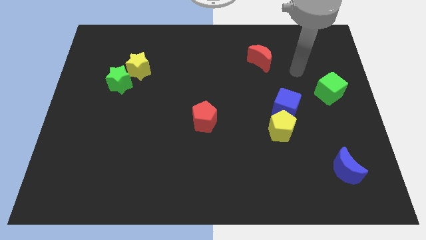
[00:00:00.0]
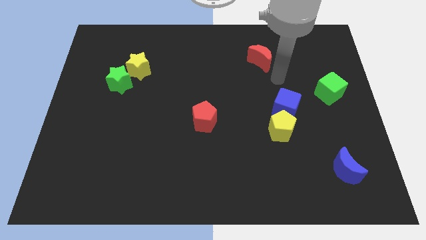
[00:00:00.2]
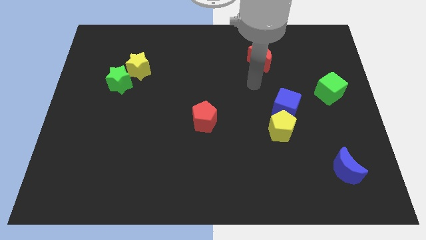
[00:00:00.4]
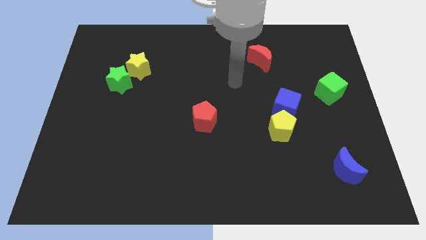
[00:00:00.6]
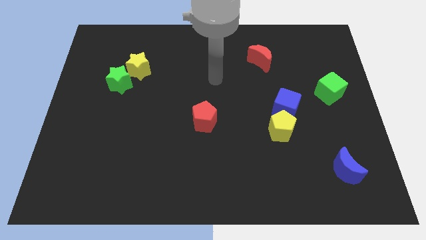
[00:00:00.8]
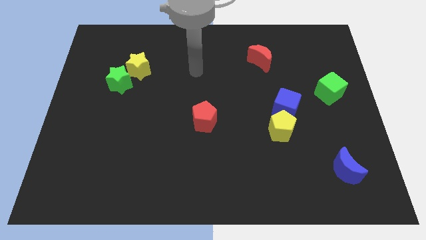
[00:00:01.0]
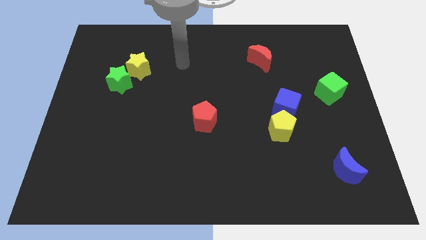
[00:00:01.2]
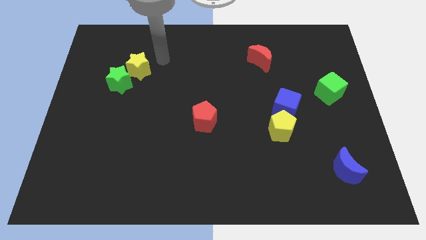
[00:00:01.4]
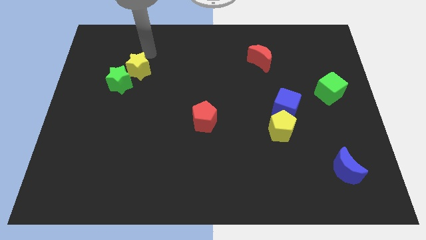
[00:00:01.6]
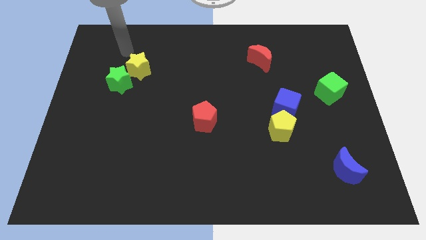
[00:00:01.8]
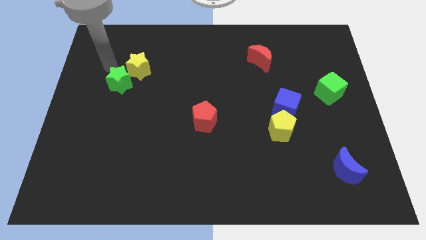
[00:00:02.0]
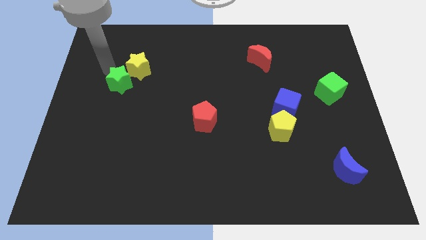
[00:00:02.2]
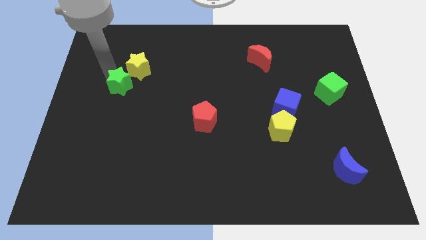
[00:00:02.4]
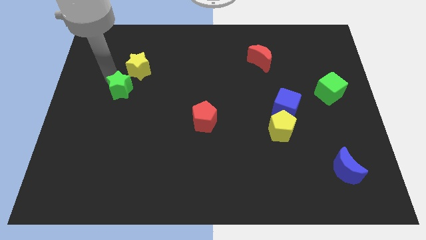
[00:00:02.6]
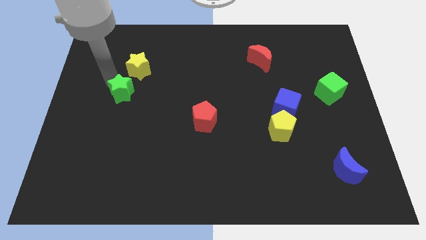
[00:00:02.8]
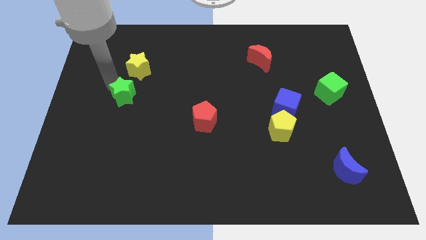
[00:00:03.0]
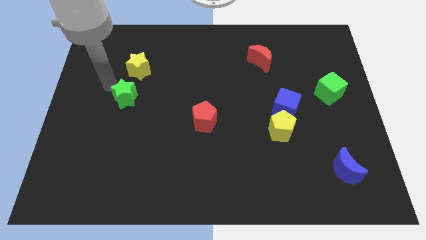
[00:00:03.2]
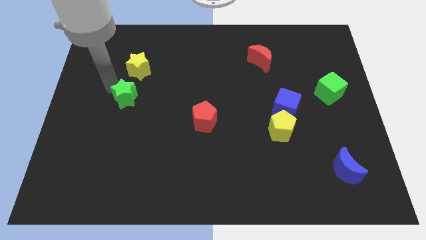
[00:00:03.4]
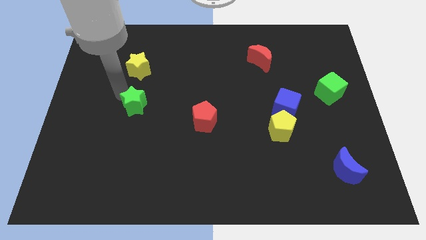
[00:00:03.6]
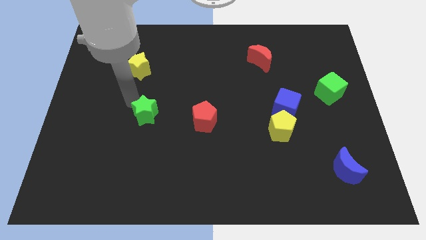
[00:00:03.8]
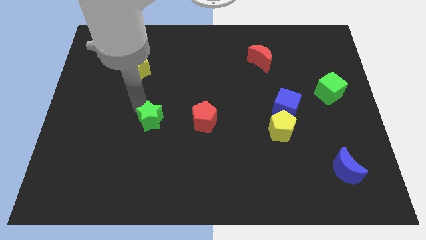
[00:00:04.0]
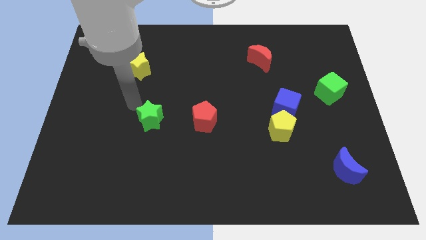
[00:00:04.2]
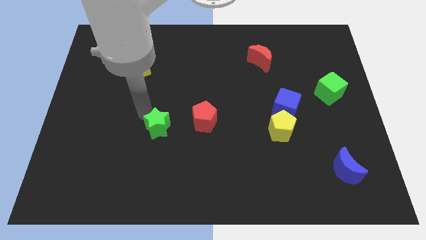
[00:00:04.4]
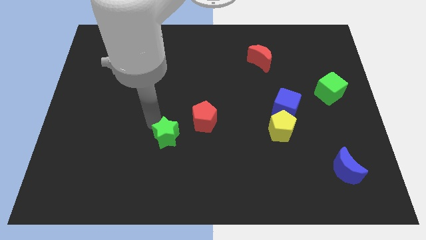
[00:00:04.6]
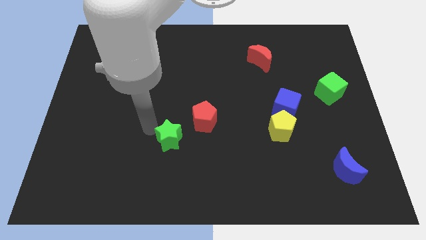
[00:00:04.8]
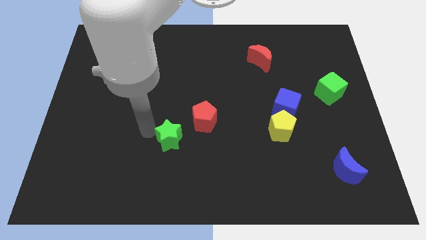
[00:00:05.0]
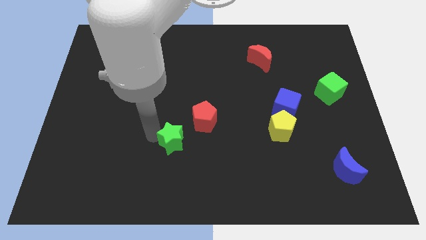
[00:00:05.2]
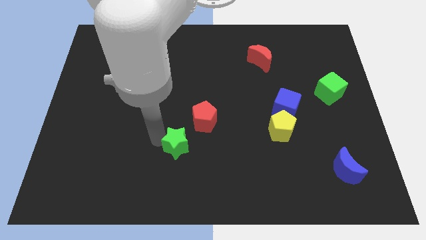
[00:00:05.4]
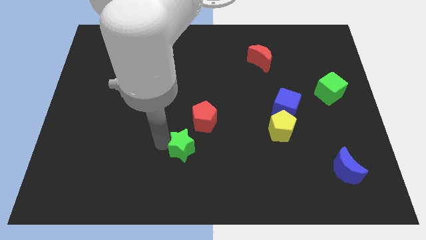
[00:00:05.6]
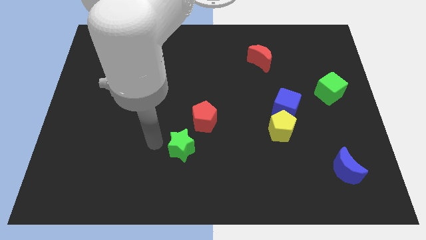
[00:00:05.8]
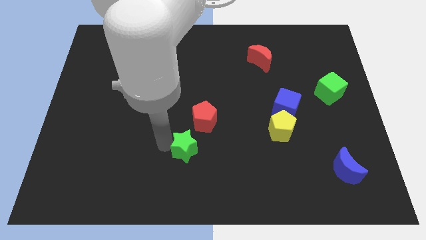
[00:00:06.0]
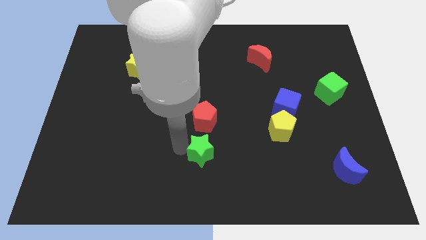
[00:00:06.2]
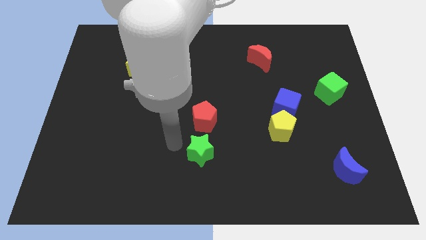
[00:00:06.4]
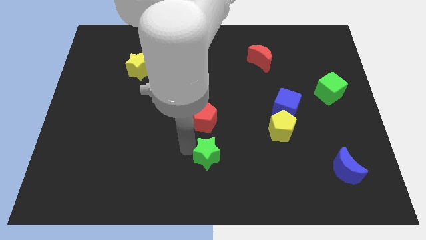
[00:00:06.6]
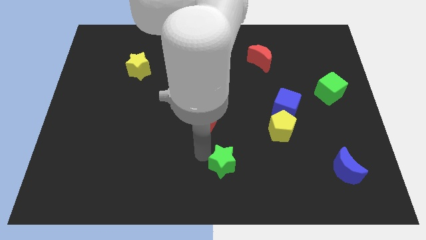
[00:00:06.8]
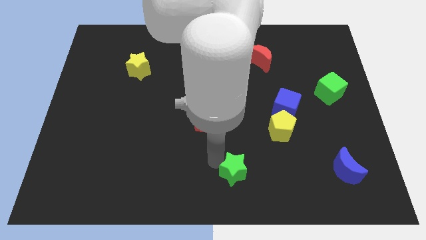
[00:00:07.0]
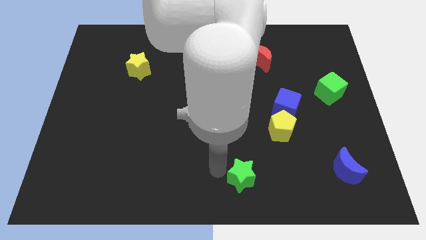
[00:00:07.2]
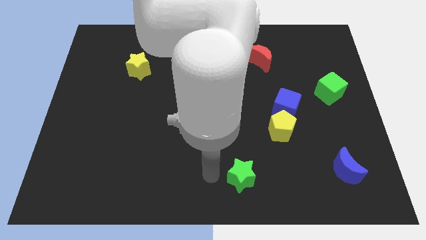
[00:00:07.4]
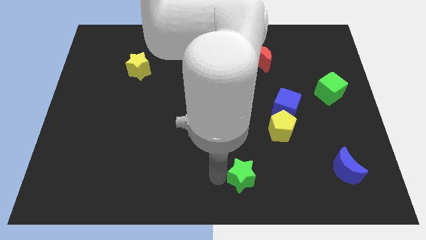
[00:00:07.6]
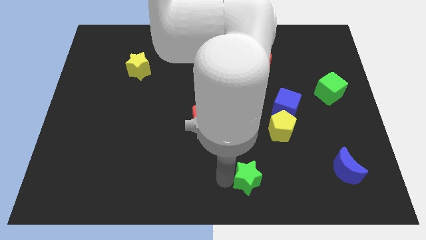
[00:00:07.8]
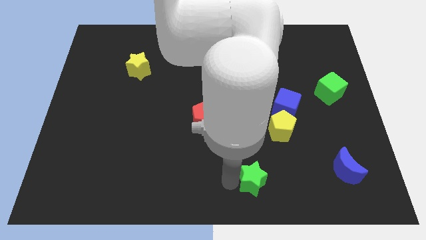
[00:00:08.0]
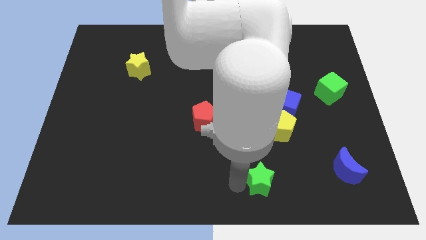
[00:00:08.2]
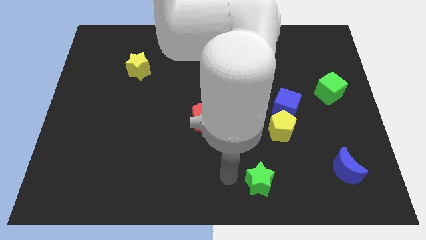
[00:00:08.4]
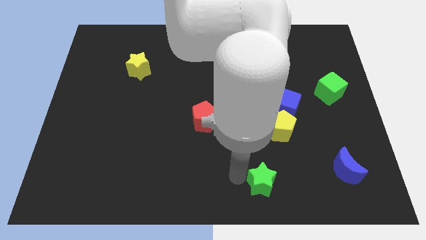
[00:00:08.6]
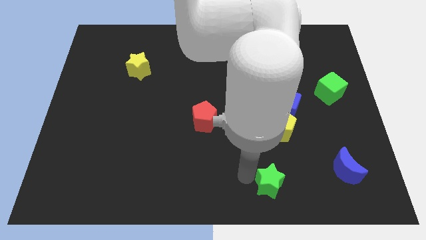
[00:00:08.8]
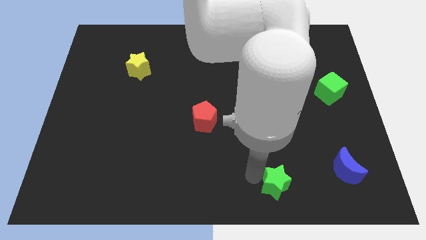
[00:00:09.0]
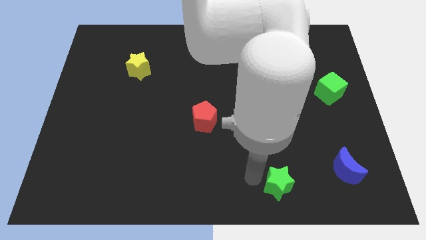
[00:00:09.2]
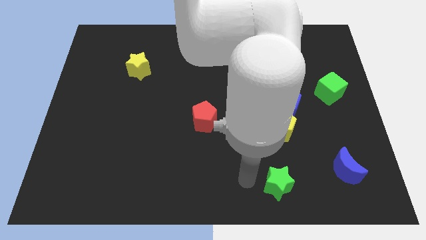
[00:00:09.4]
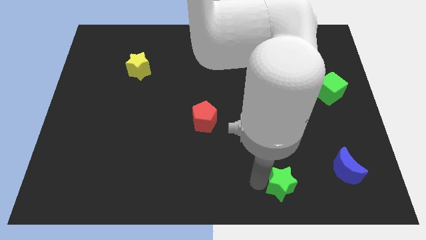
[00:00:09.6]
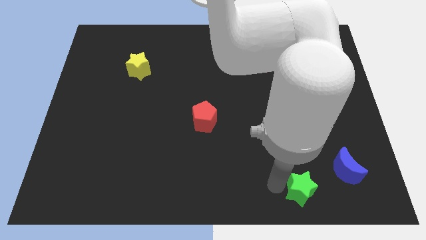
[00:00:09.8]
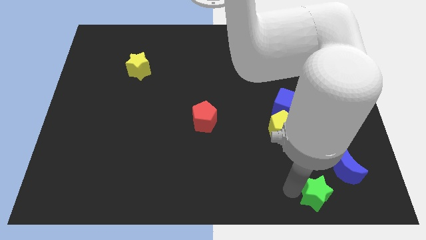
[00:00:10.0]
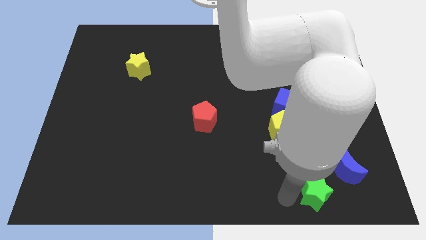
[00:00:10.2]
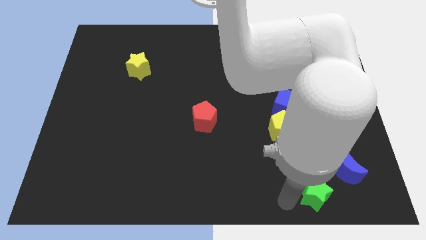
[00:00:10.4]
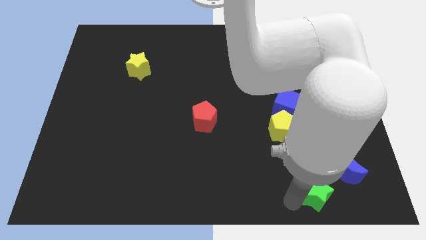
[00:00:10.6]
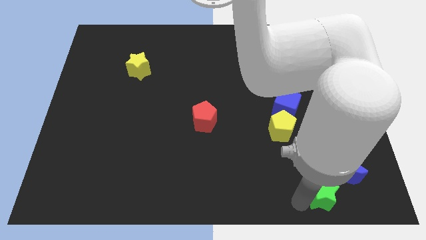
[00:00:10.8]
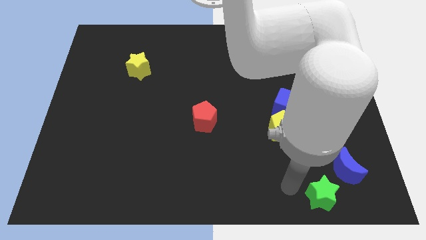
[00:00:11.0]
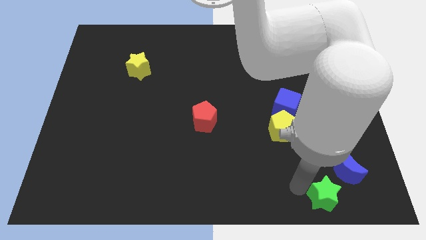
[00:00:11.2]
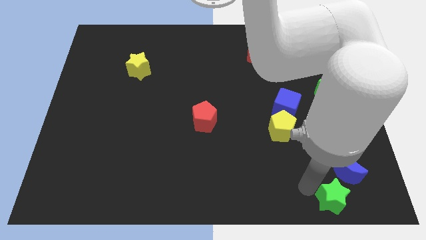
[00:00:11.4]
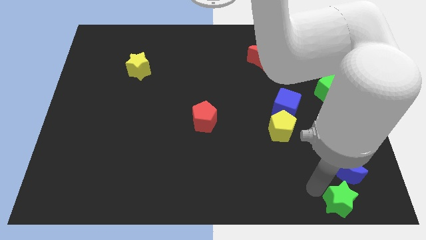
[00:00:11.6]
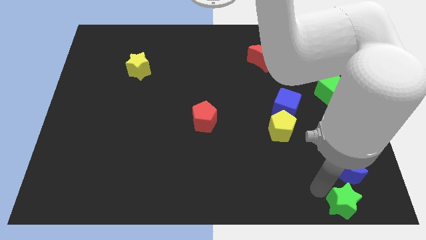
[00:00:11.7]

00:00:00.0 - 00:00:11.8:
push the green star to the bottom right of the board
